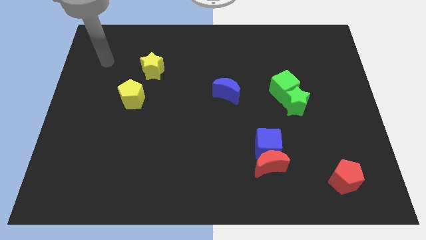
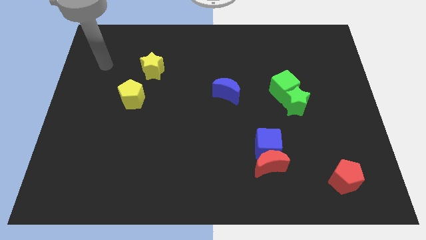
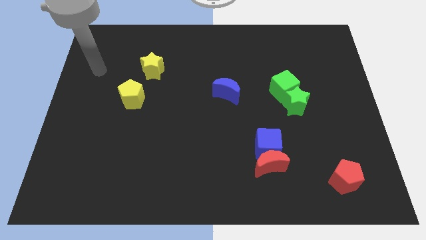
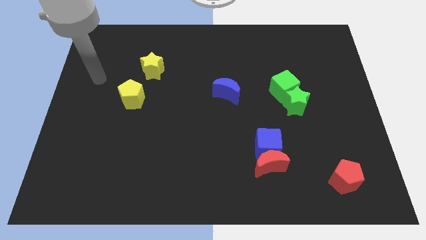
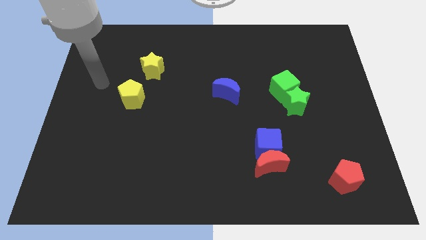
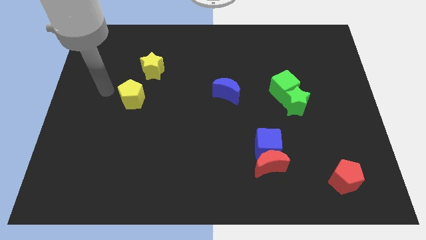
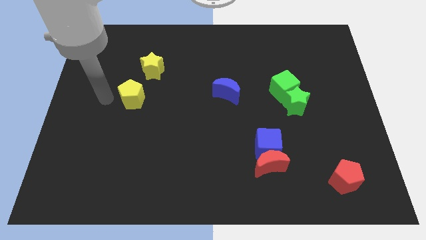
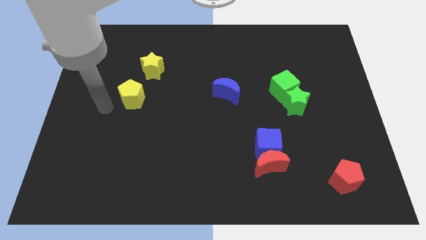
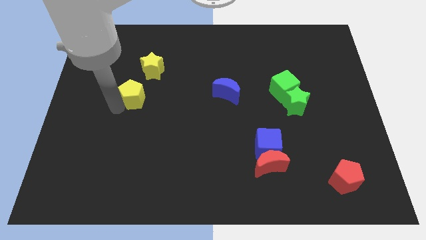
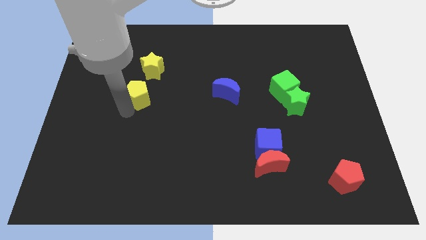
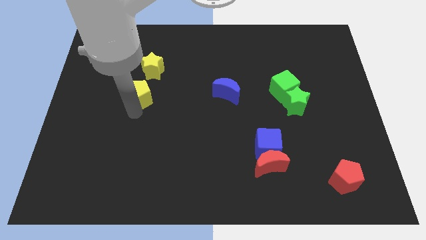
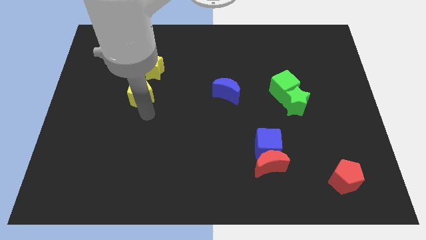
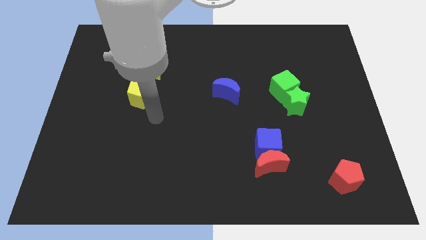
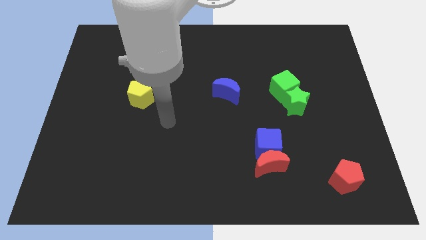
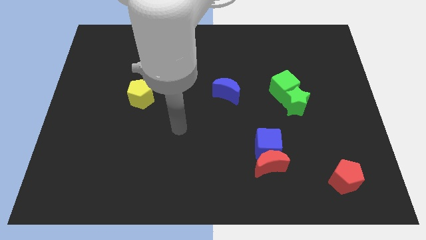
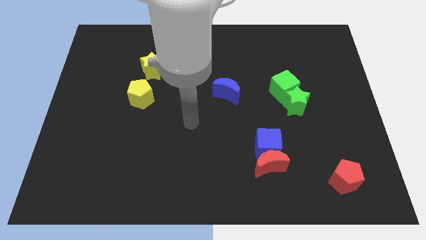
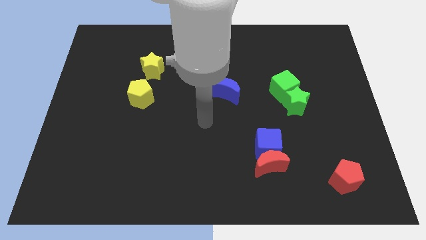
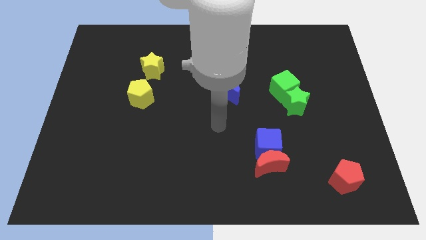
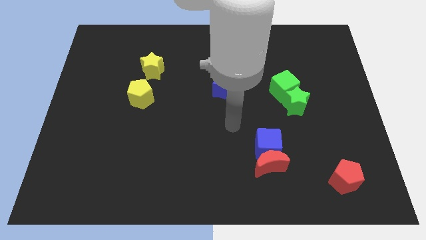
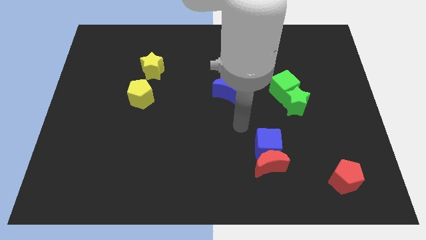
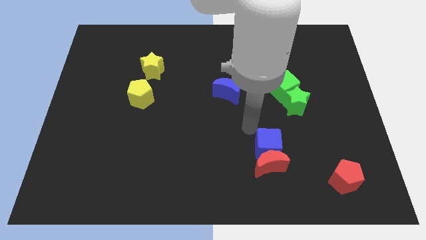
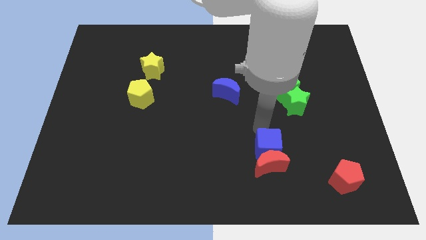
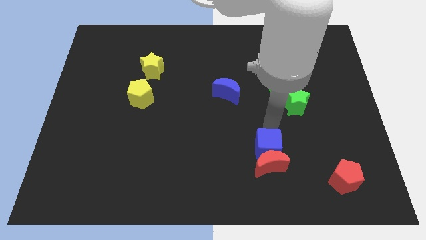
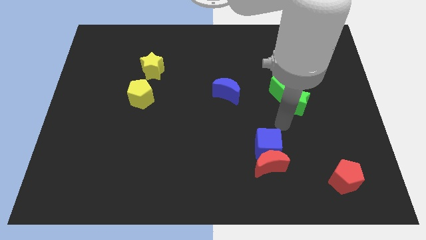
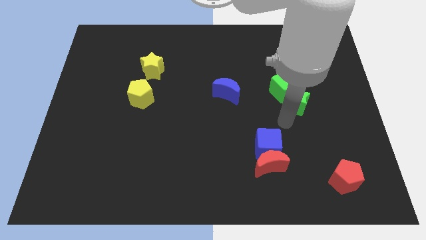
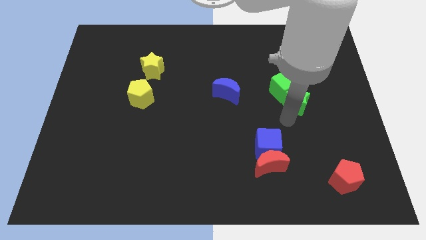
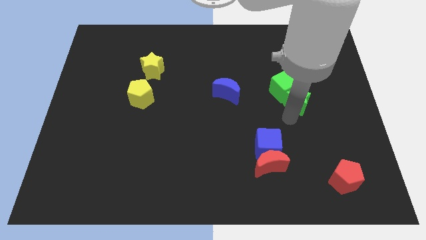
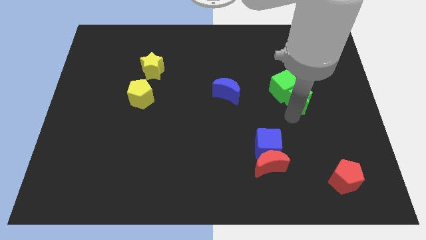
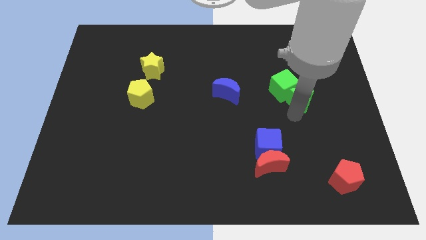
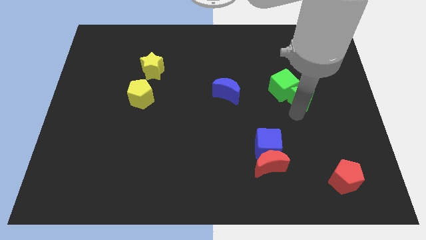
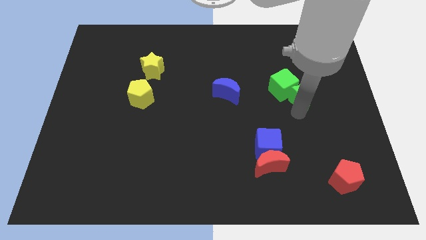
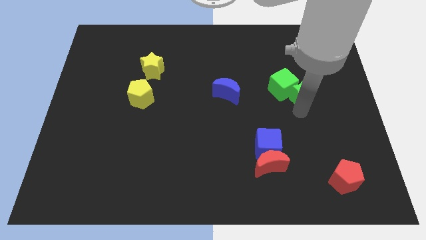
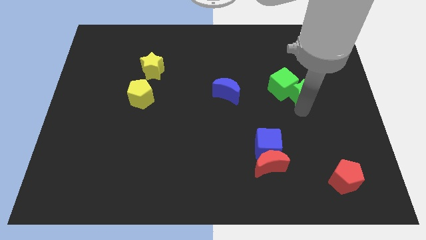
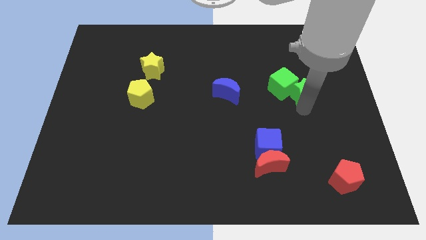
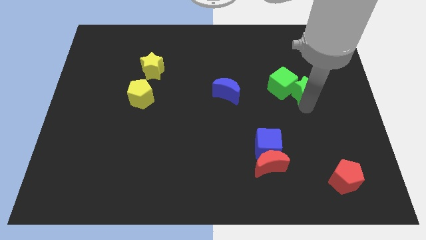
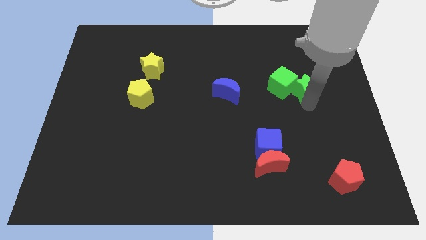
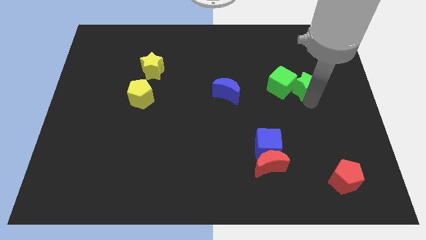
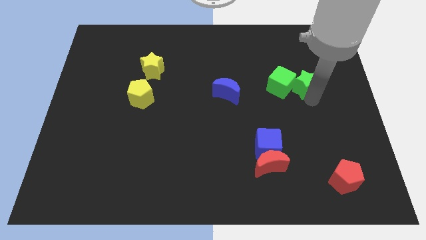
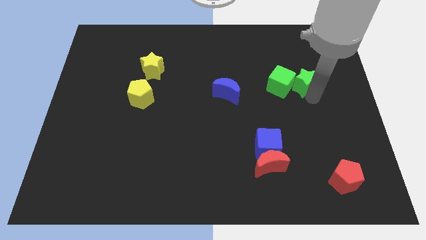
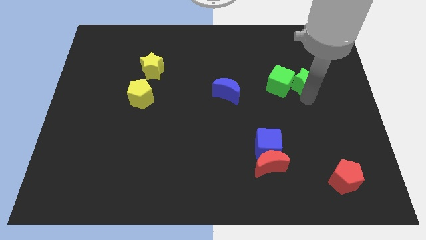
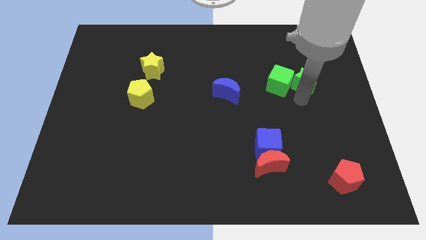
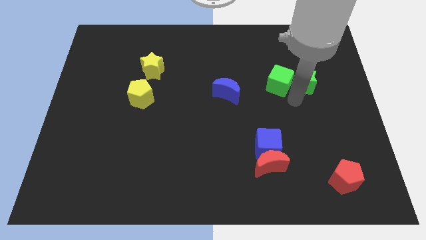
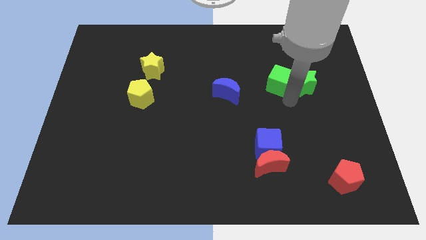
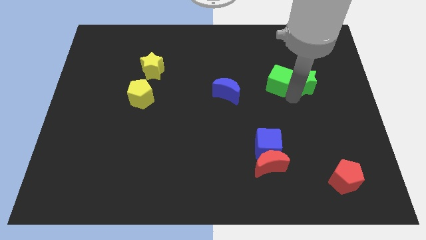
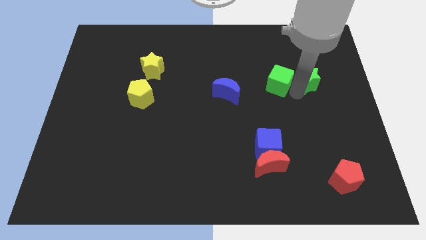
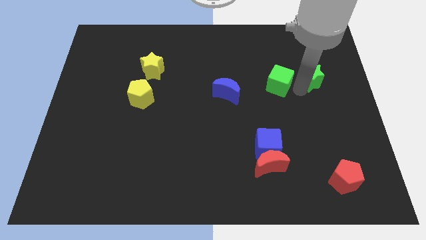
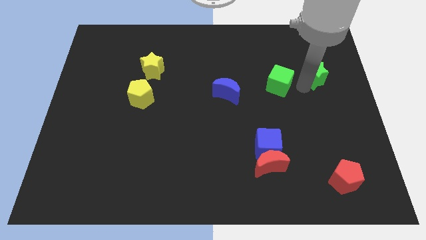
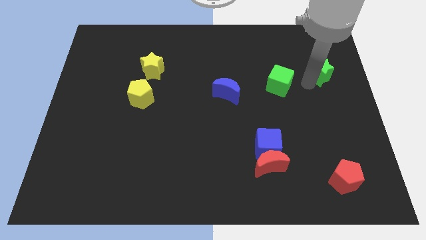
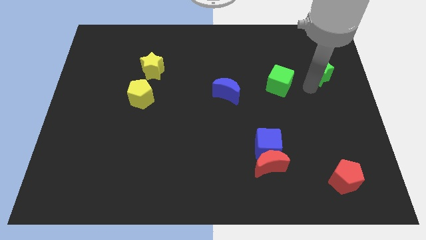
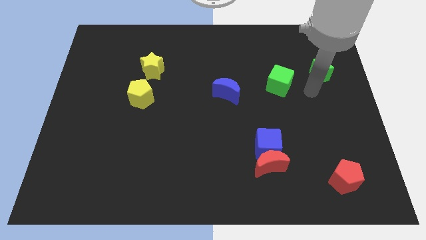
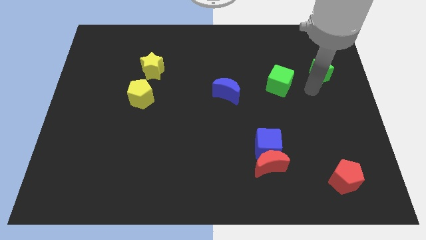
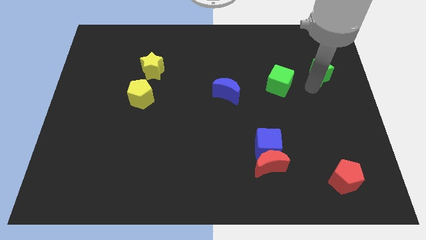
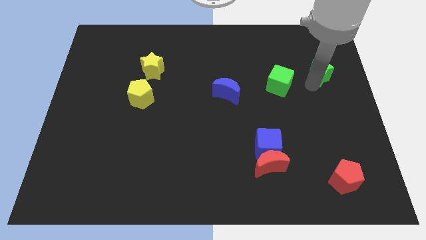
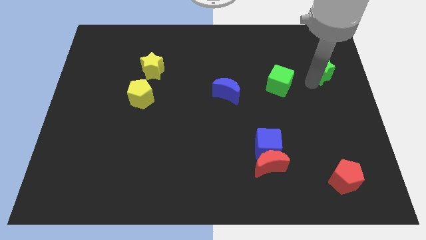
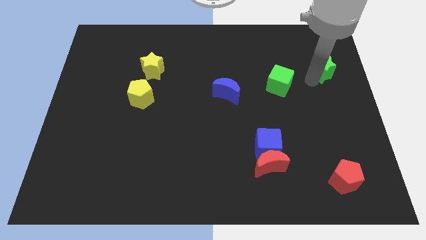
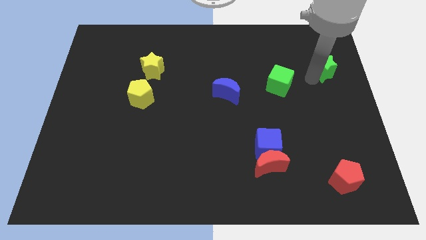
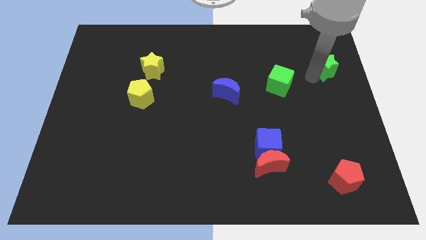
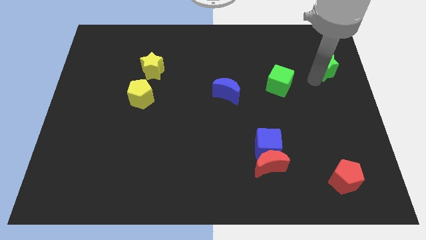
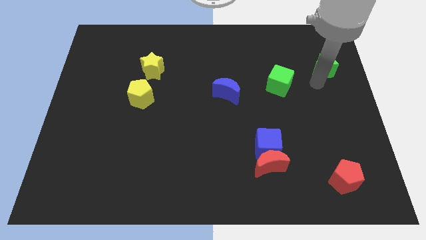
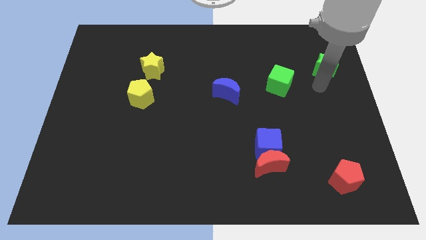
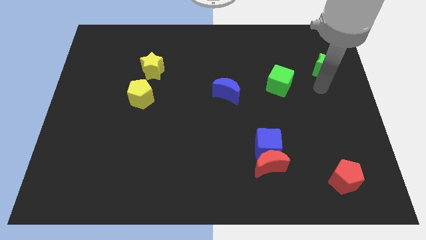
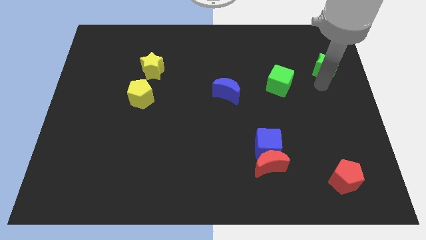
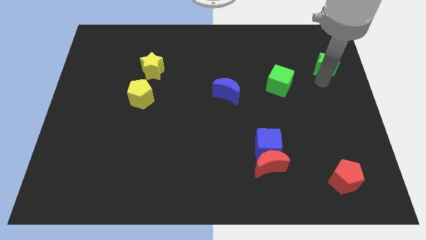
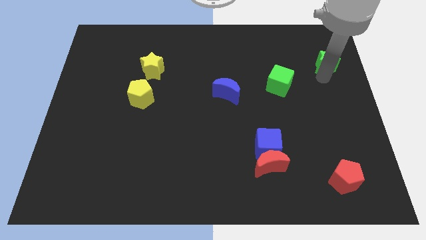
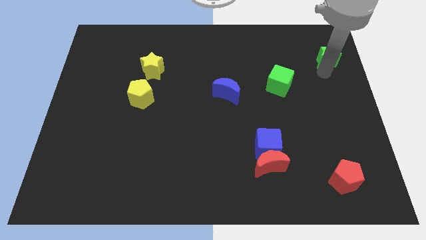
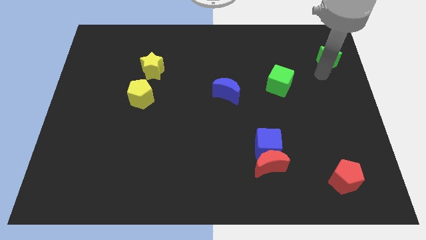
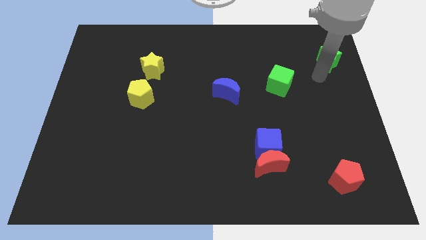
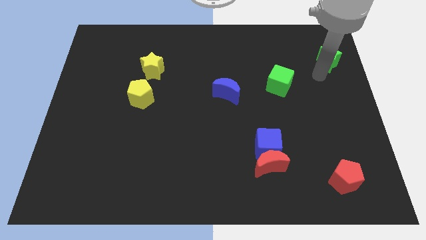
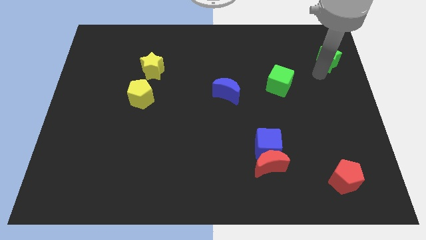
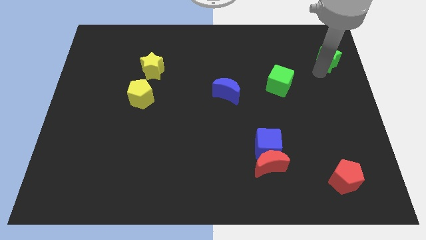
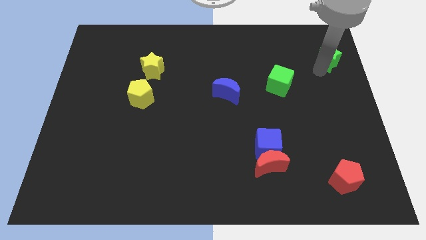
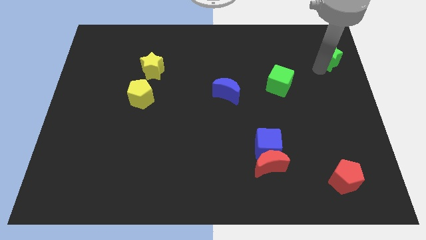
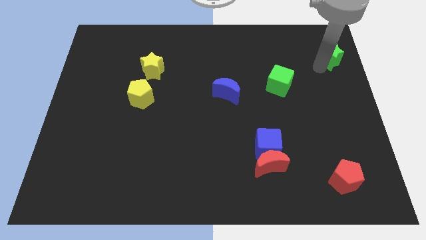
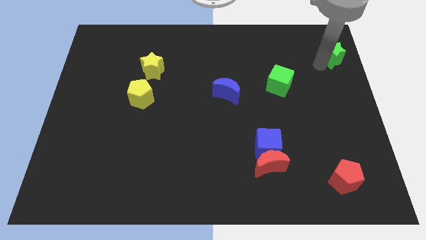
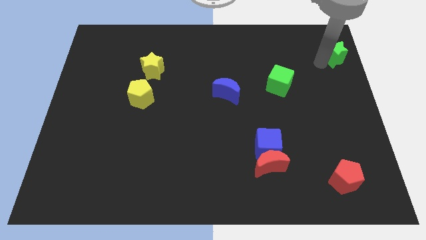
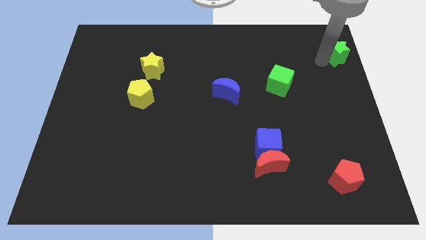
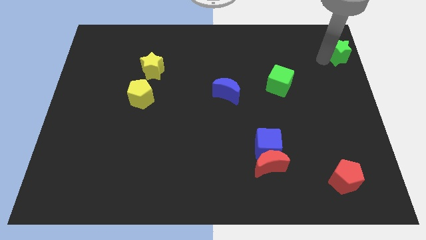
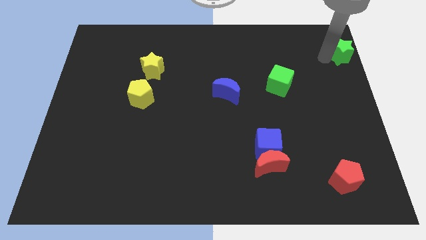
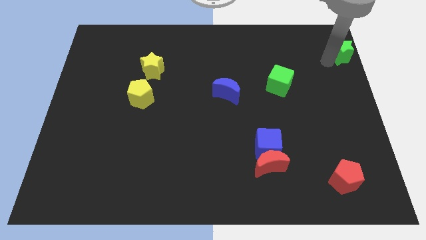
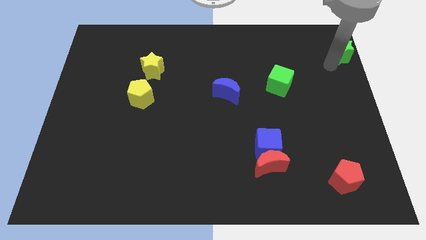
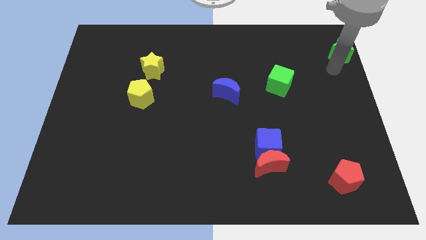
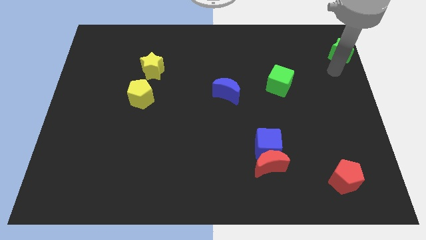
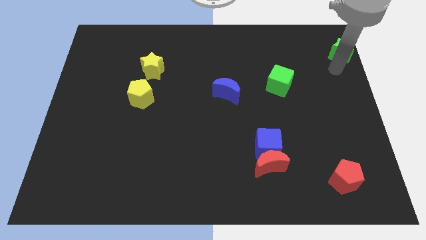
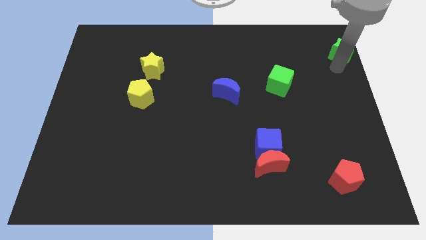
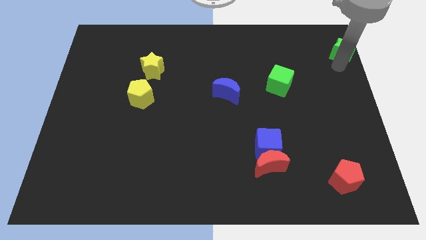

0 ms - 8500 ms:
push the green star to the top right corner
